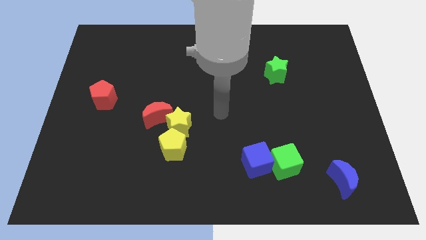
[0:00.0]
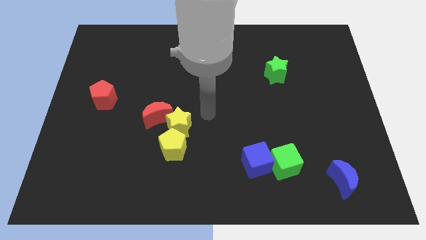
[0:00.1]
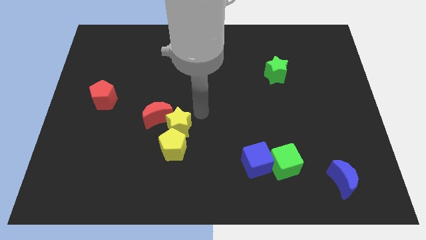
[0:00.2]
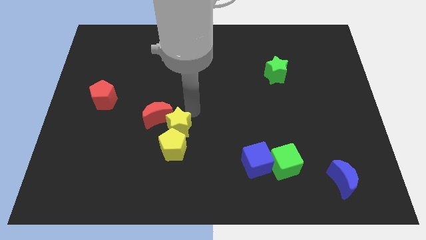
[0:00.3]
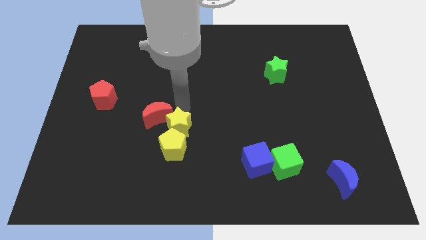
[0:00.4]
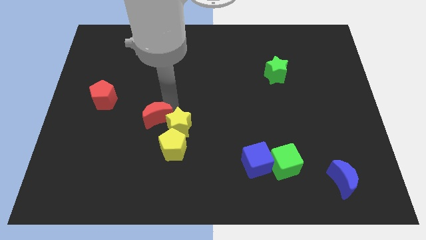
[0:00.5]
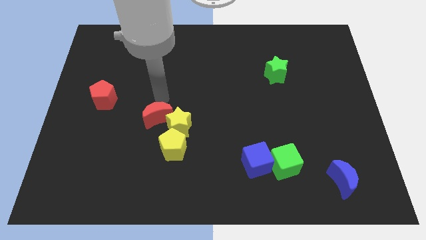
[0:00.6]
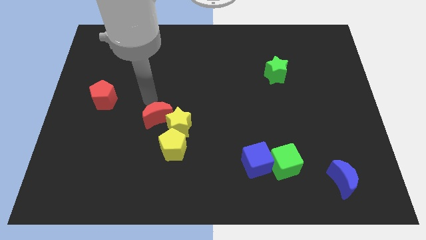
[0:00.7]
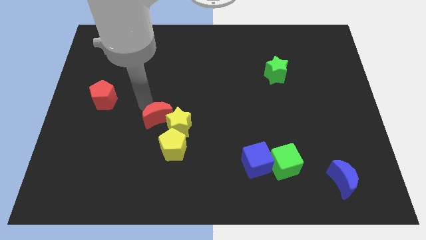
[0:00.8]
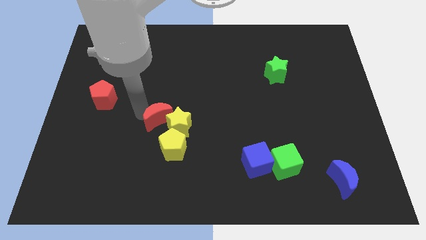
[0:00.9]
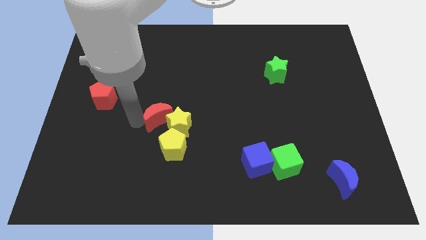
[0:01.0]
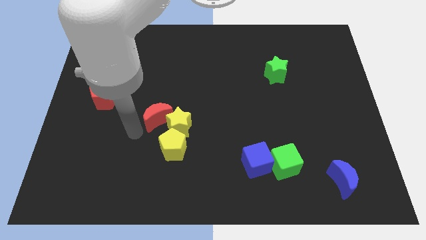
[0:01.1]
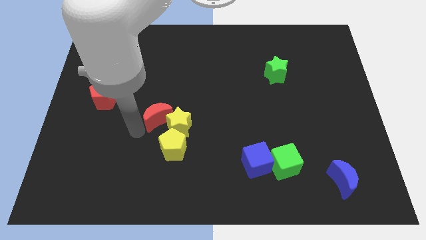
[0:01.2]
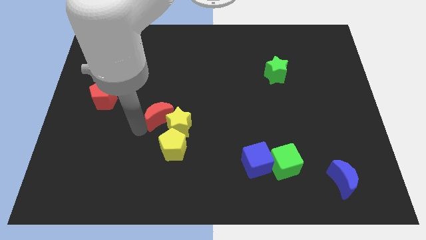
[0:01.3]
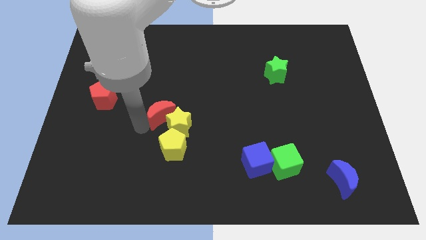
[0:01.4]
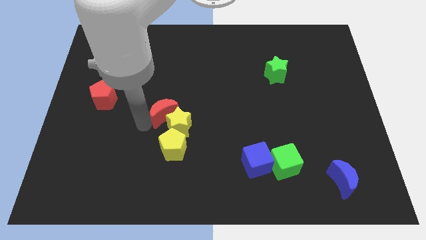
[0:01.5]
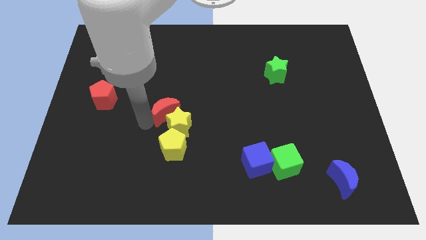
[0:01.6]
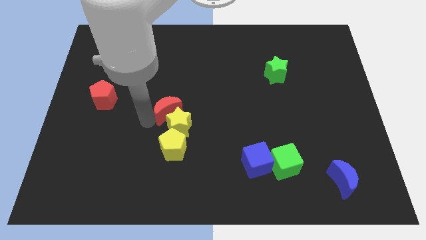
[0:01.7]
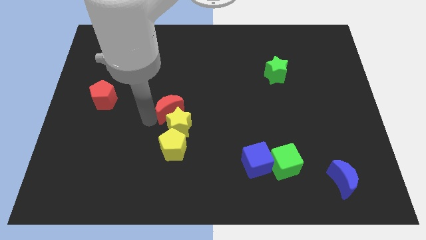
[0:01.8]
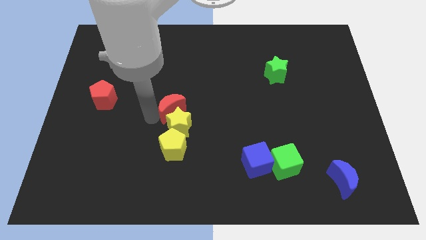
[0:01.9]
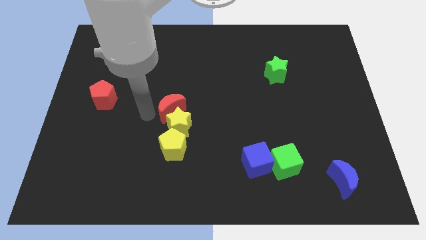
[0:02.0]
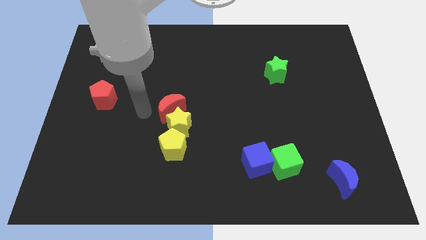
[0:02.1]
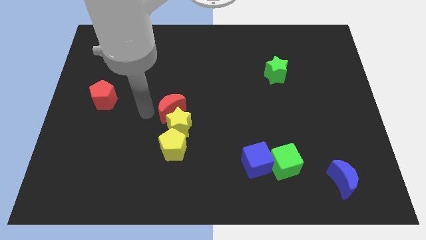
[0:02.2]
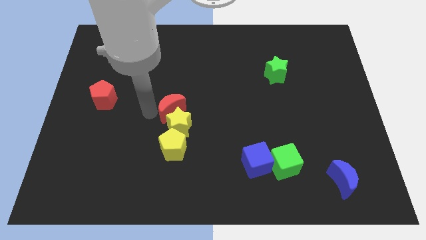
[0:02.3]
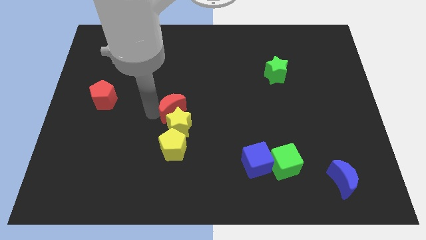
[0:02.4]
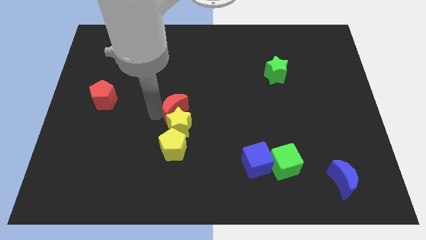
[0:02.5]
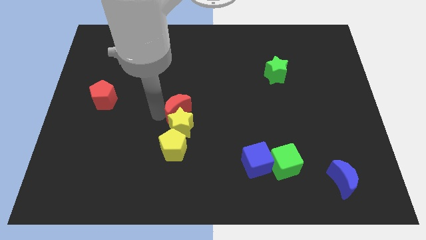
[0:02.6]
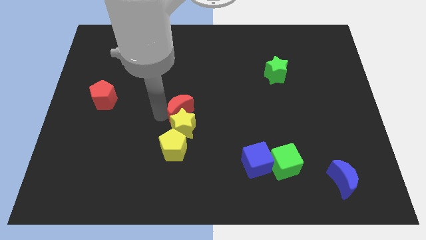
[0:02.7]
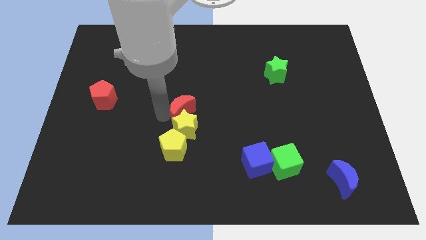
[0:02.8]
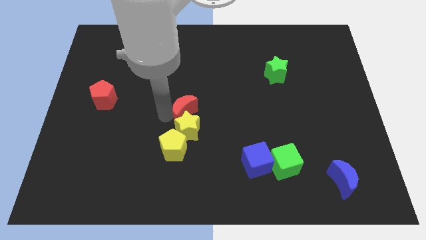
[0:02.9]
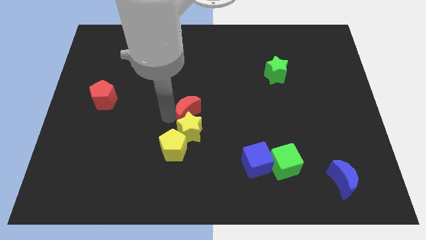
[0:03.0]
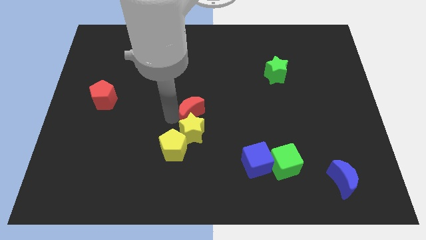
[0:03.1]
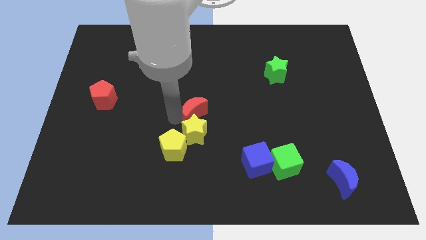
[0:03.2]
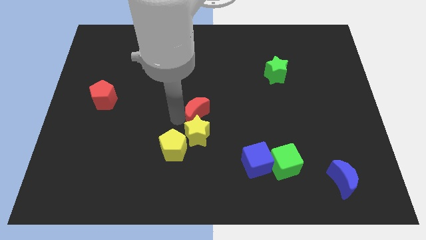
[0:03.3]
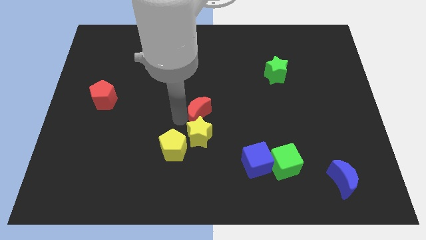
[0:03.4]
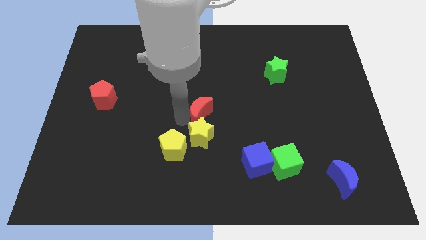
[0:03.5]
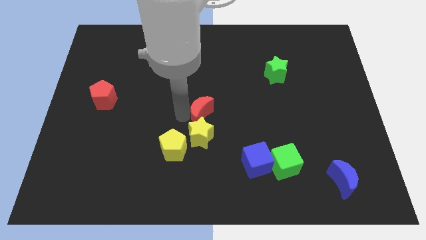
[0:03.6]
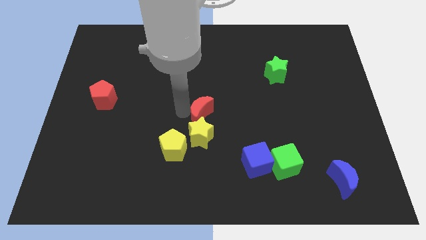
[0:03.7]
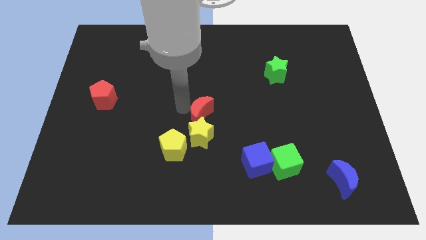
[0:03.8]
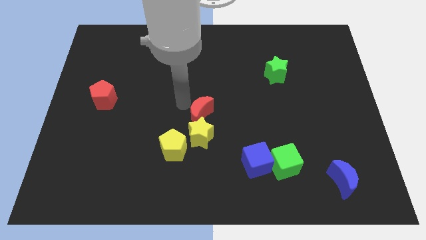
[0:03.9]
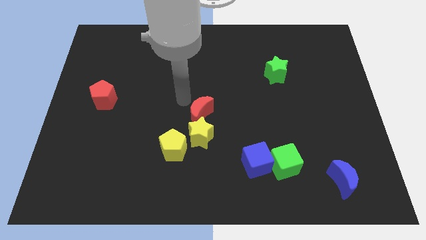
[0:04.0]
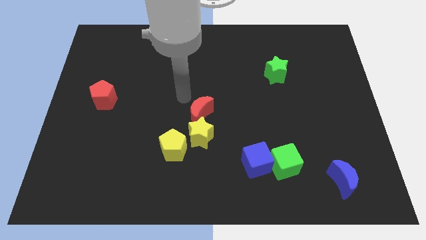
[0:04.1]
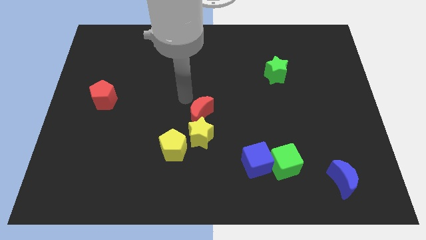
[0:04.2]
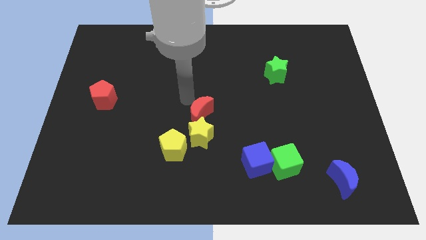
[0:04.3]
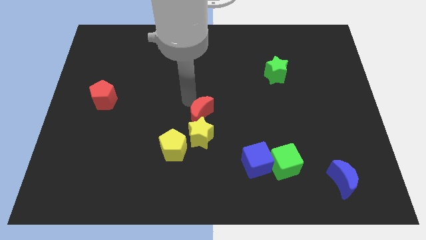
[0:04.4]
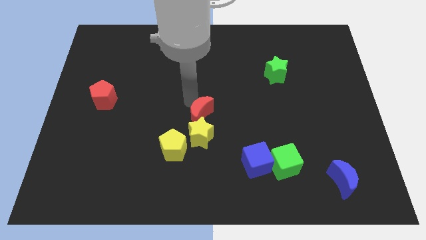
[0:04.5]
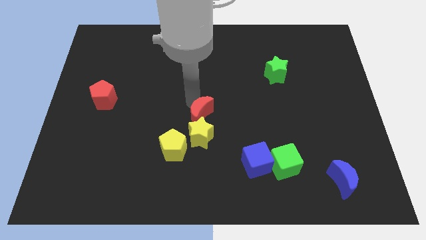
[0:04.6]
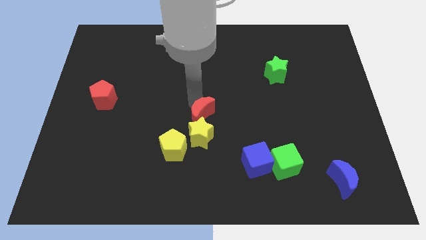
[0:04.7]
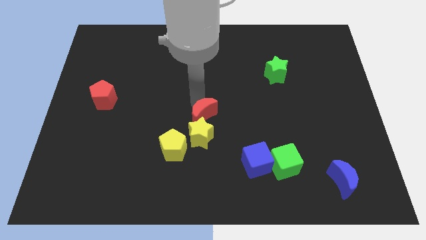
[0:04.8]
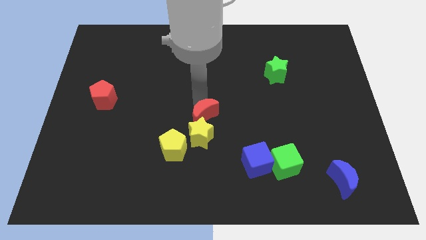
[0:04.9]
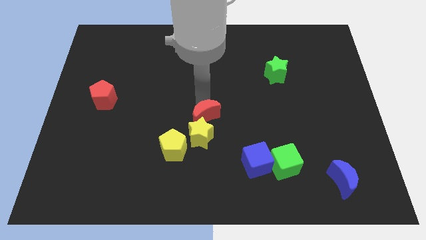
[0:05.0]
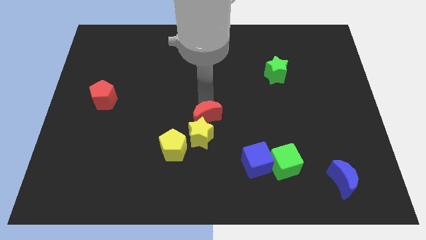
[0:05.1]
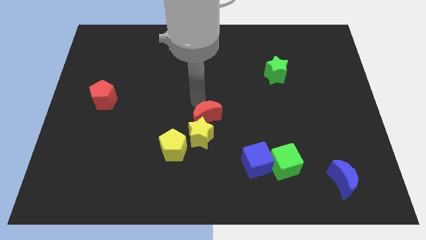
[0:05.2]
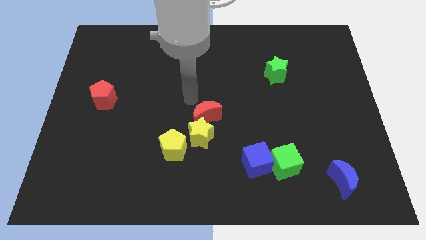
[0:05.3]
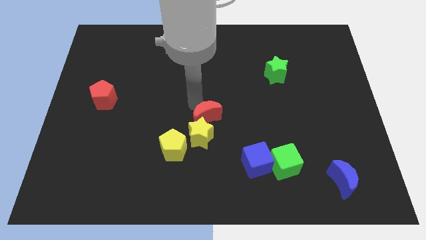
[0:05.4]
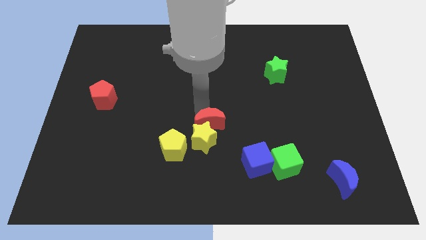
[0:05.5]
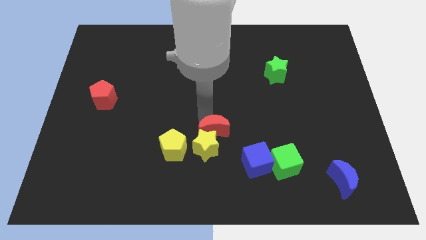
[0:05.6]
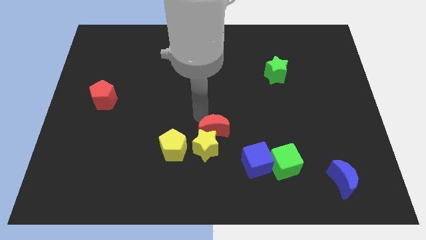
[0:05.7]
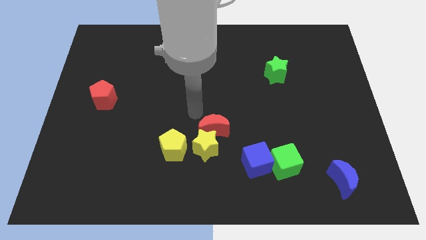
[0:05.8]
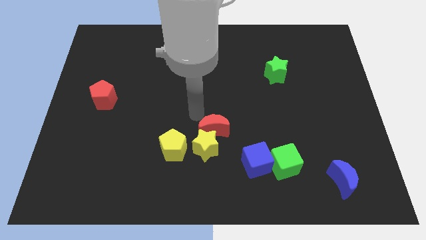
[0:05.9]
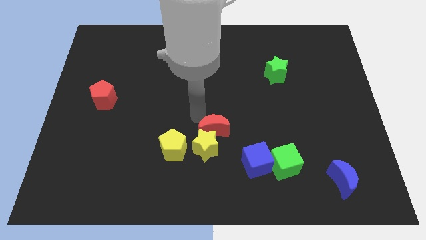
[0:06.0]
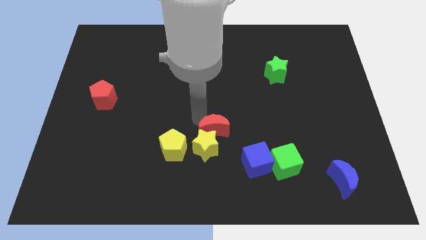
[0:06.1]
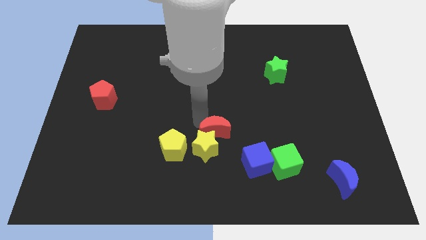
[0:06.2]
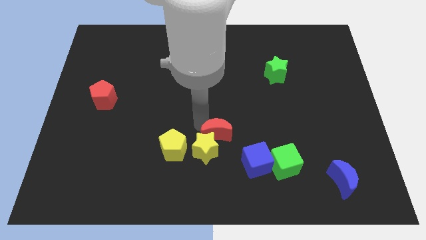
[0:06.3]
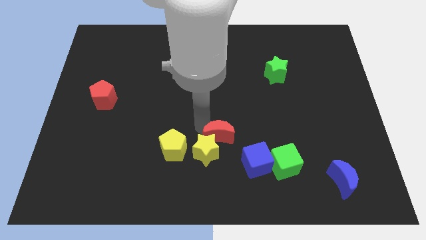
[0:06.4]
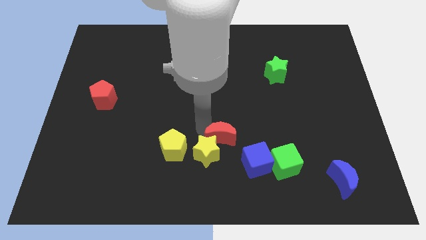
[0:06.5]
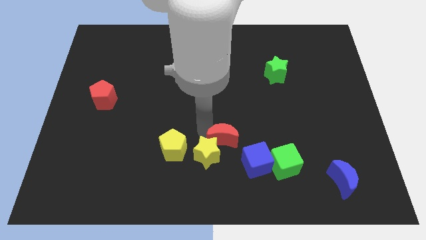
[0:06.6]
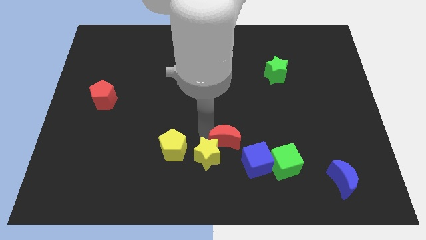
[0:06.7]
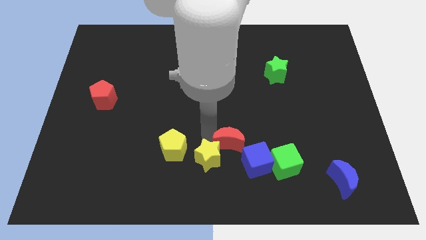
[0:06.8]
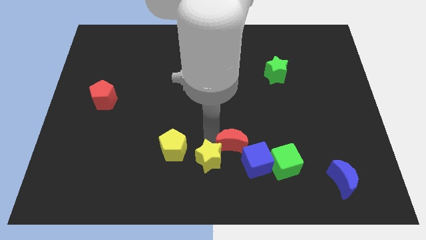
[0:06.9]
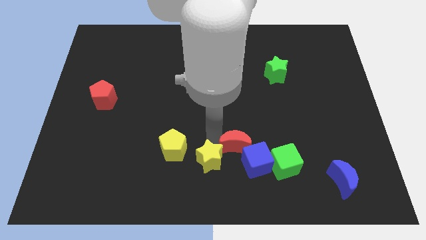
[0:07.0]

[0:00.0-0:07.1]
move the red moon close to the blue cube

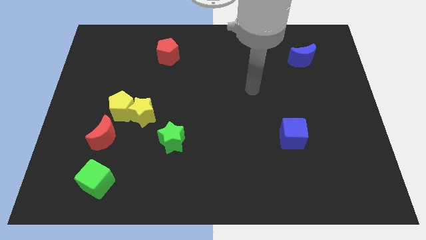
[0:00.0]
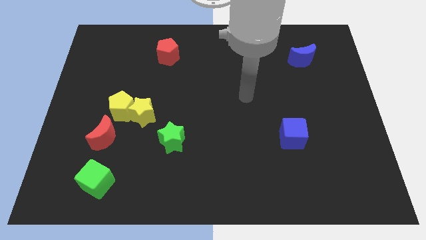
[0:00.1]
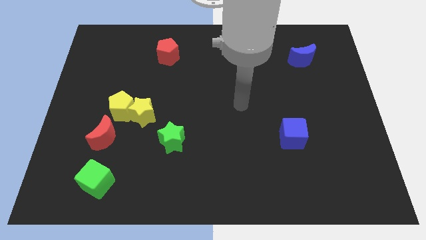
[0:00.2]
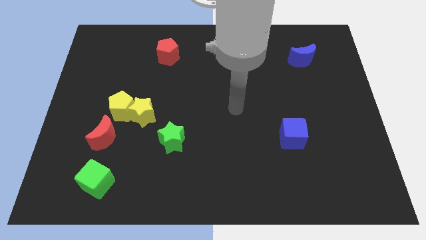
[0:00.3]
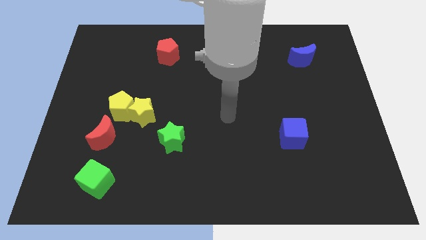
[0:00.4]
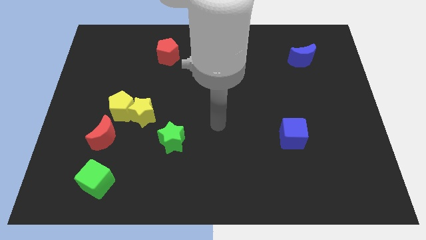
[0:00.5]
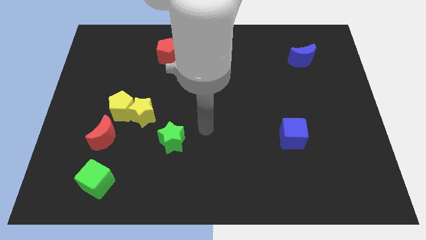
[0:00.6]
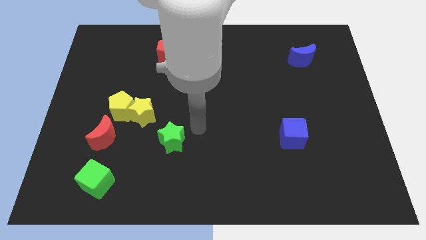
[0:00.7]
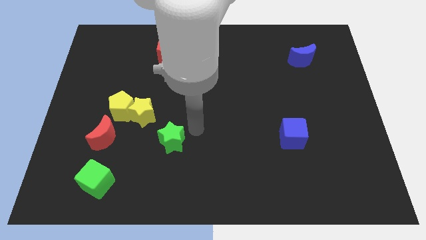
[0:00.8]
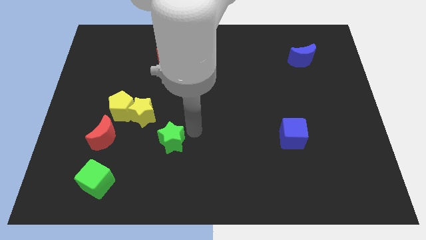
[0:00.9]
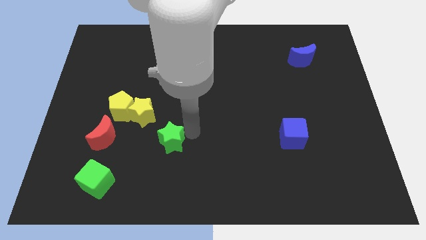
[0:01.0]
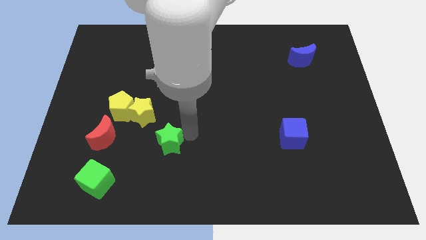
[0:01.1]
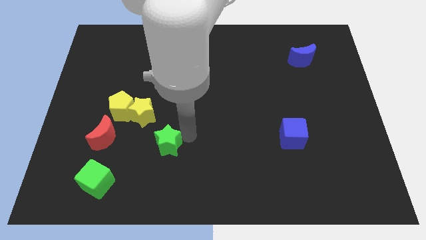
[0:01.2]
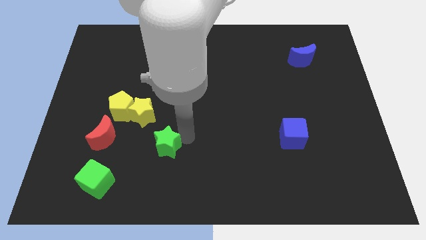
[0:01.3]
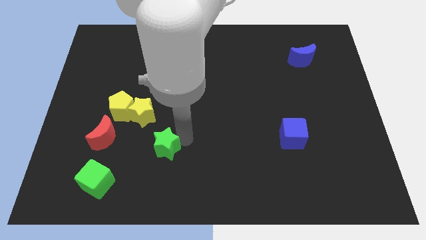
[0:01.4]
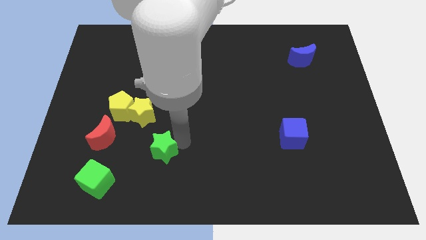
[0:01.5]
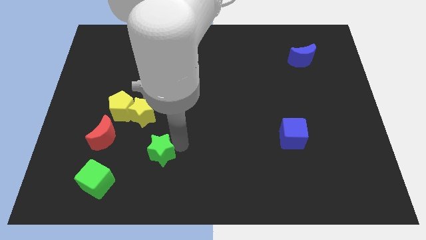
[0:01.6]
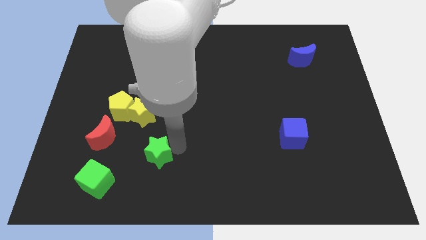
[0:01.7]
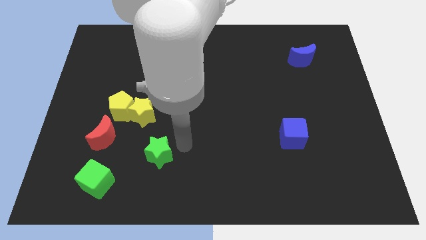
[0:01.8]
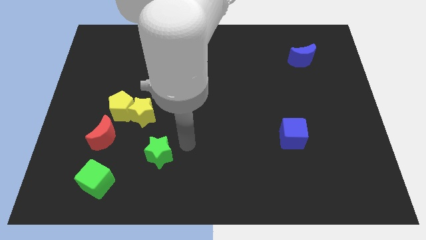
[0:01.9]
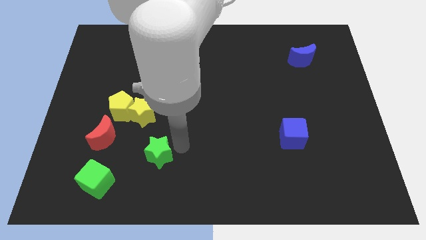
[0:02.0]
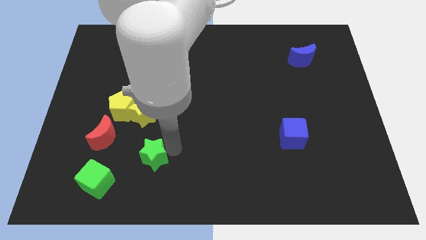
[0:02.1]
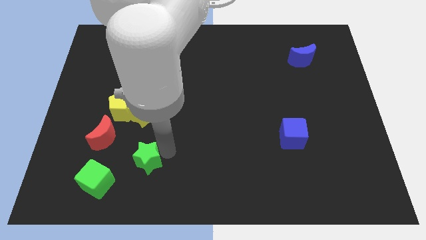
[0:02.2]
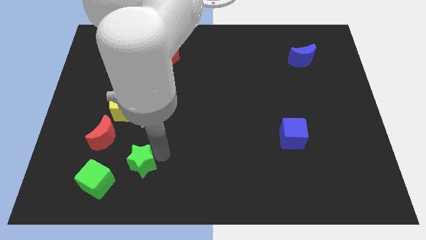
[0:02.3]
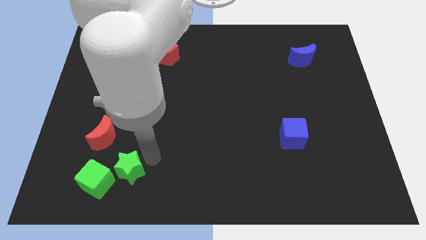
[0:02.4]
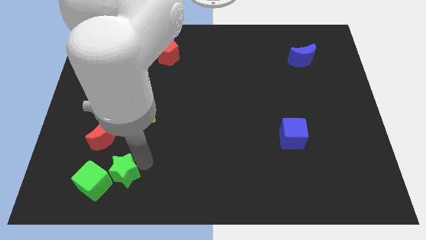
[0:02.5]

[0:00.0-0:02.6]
put the green star towards the green cube
